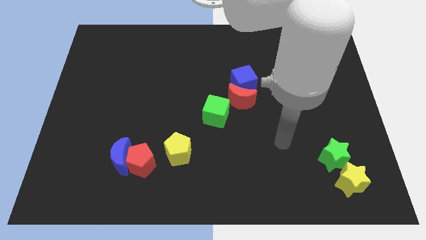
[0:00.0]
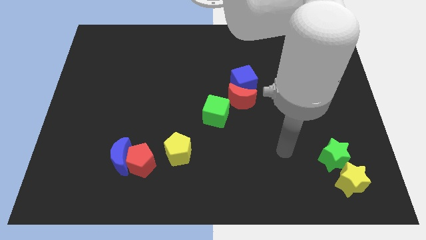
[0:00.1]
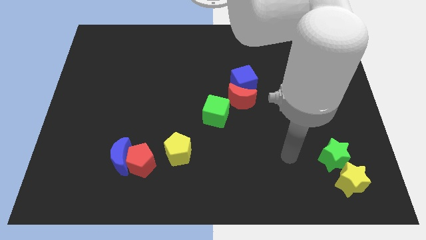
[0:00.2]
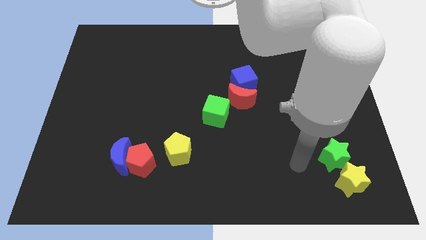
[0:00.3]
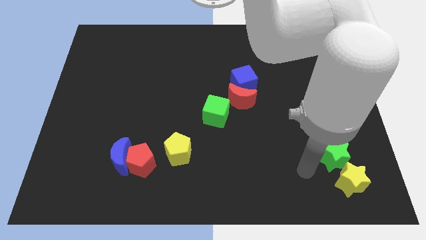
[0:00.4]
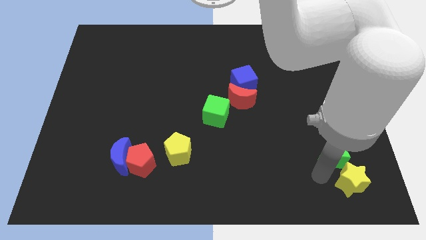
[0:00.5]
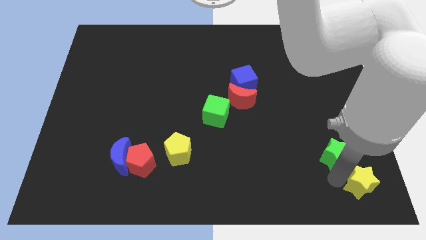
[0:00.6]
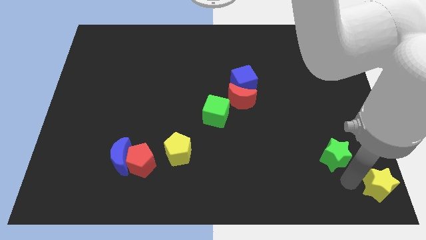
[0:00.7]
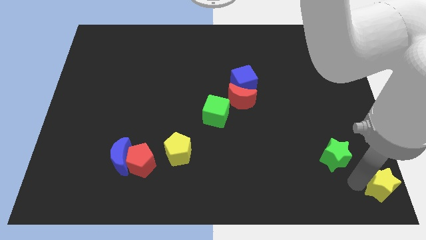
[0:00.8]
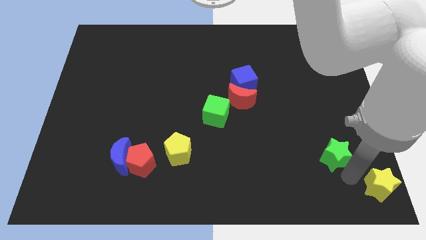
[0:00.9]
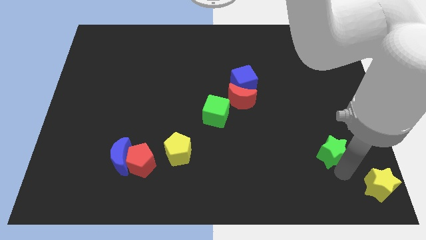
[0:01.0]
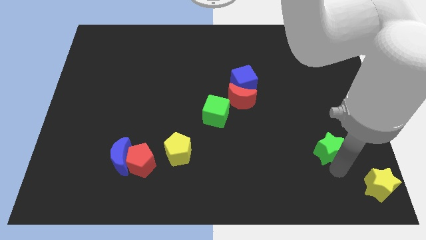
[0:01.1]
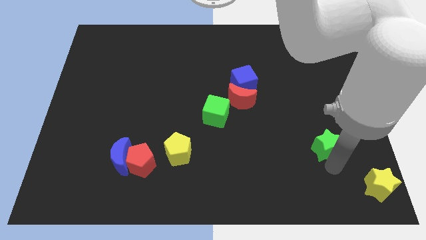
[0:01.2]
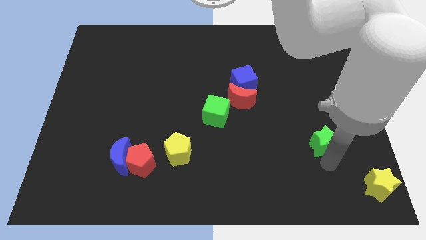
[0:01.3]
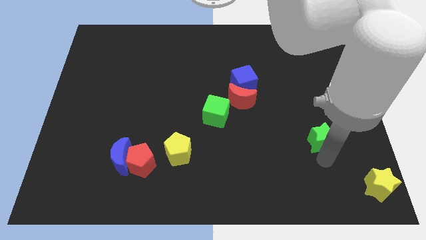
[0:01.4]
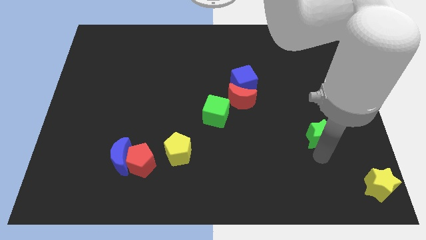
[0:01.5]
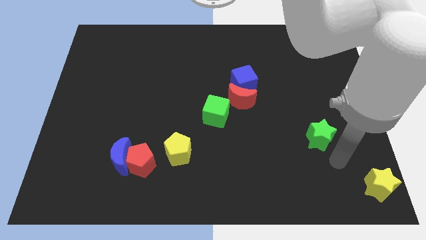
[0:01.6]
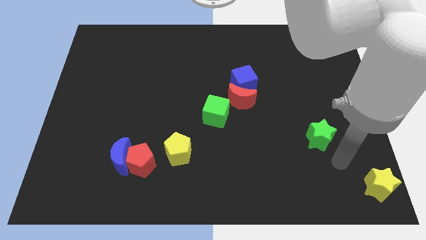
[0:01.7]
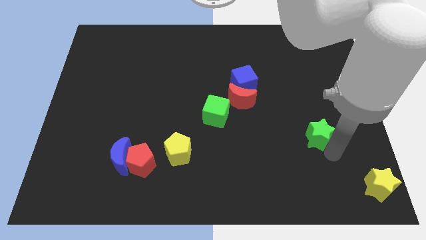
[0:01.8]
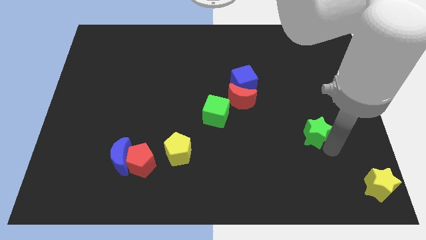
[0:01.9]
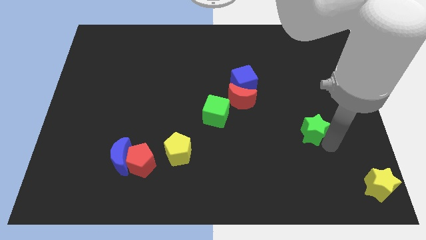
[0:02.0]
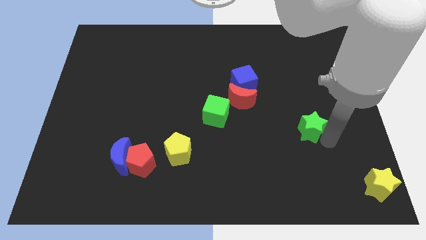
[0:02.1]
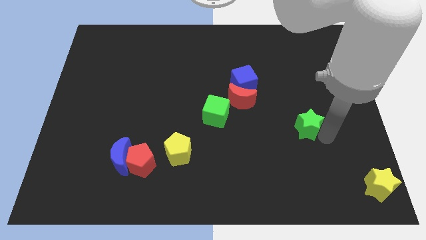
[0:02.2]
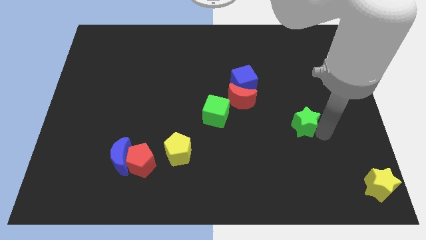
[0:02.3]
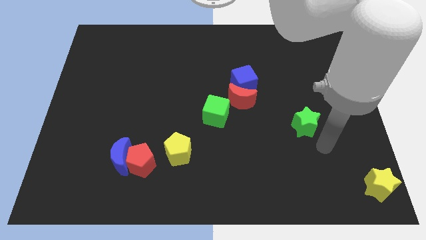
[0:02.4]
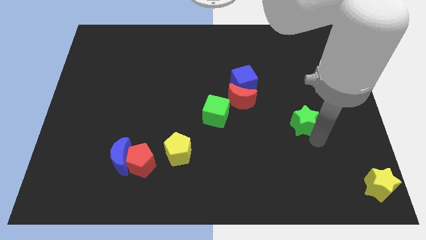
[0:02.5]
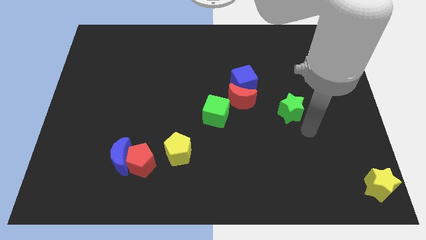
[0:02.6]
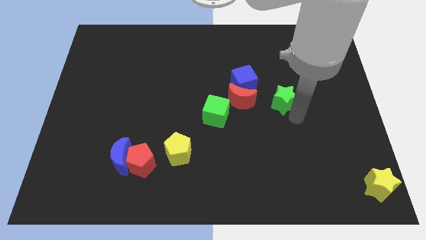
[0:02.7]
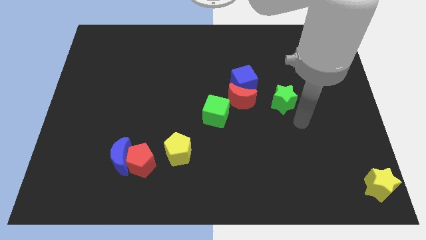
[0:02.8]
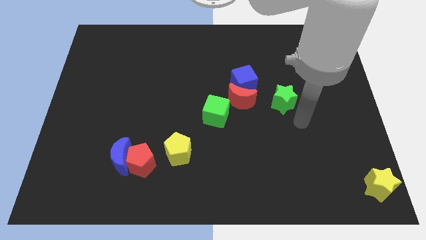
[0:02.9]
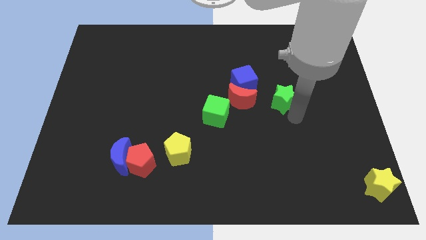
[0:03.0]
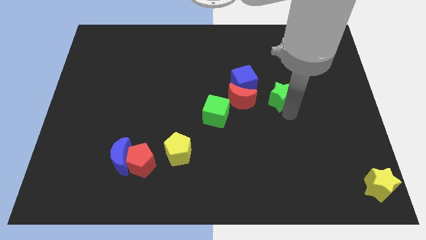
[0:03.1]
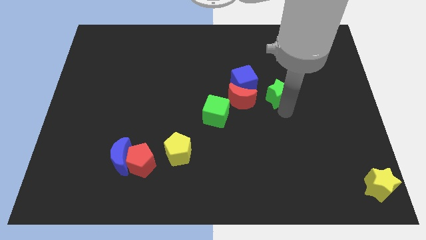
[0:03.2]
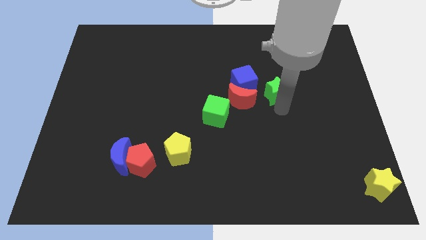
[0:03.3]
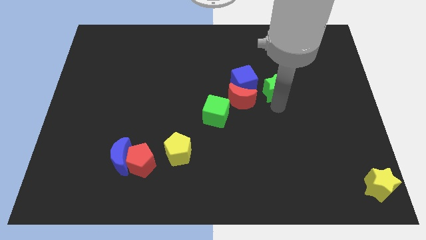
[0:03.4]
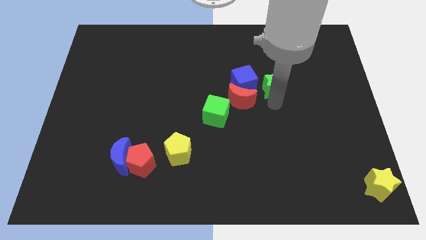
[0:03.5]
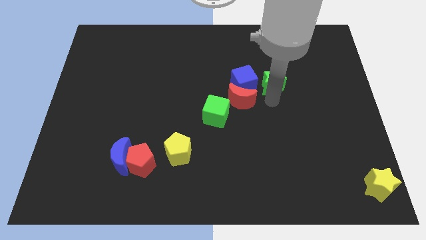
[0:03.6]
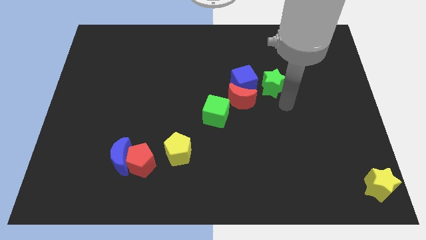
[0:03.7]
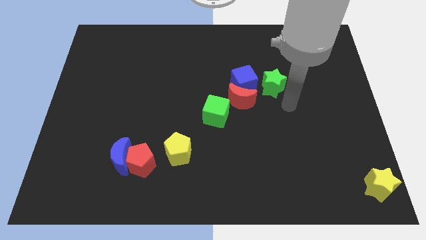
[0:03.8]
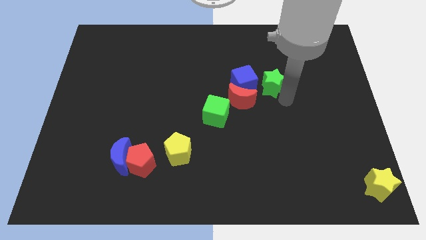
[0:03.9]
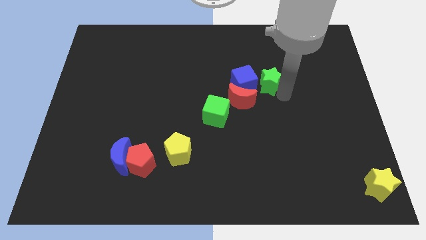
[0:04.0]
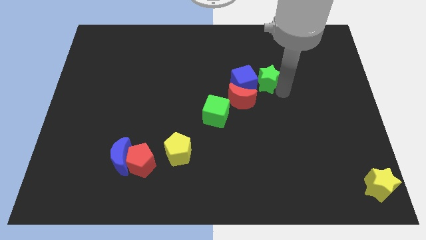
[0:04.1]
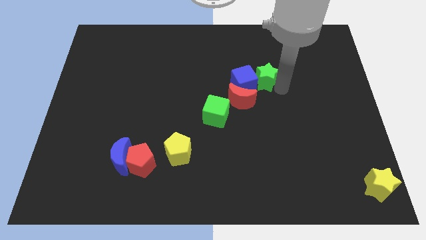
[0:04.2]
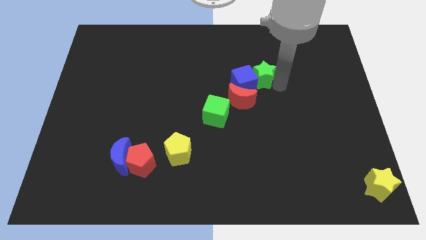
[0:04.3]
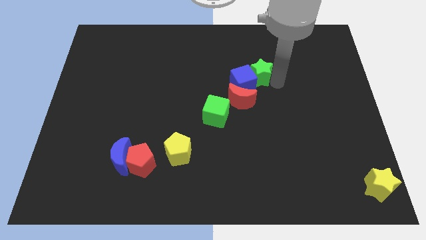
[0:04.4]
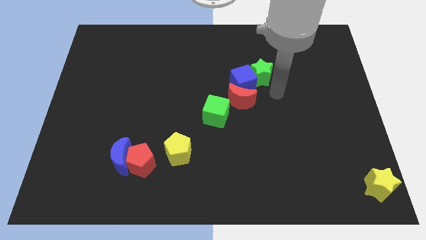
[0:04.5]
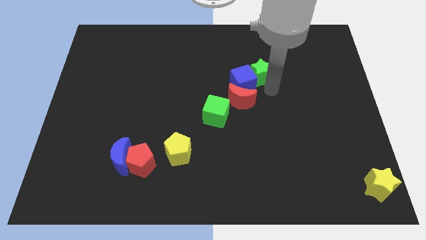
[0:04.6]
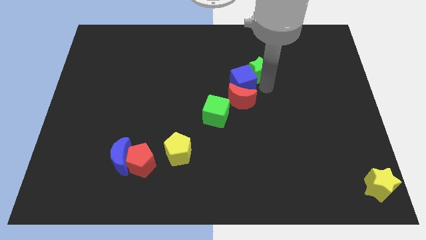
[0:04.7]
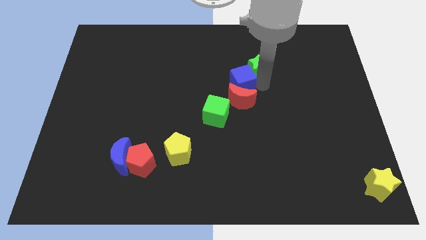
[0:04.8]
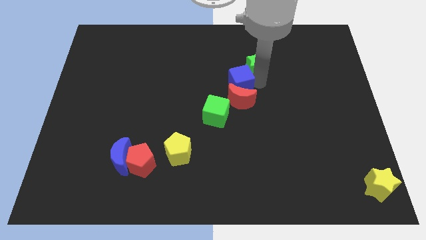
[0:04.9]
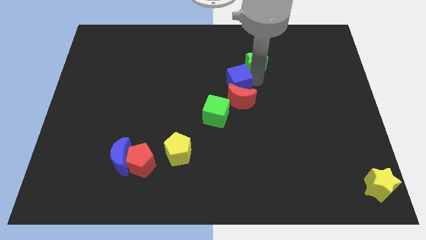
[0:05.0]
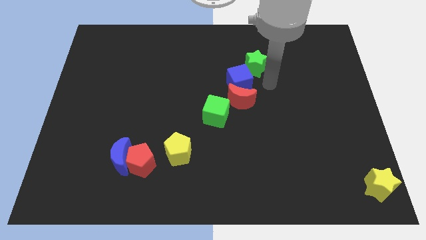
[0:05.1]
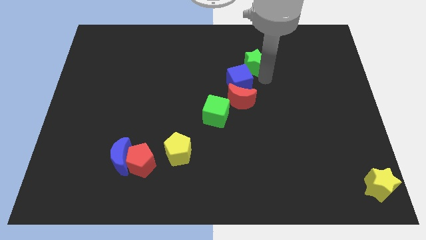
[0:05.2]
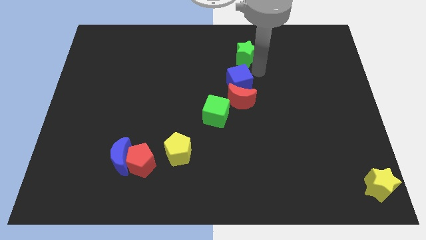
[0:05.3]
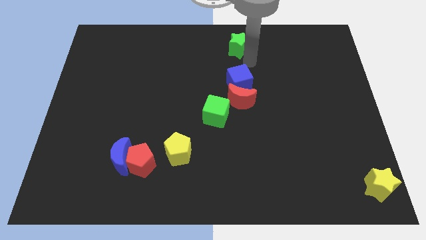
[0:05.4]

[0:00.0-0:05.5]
push the green star to the top

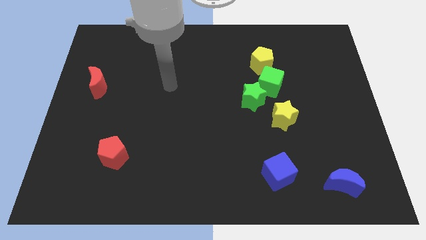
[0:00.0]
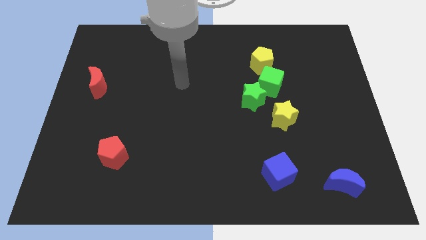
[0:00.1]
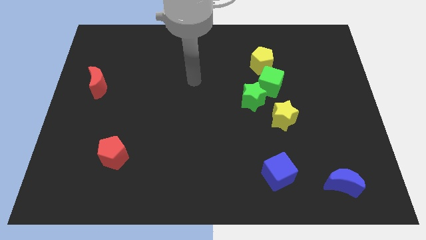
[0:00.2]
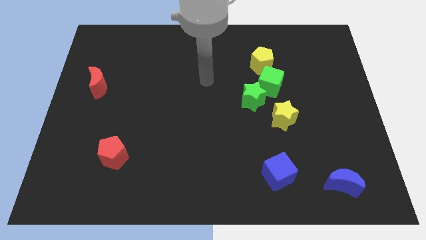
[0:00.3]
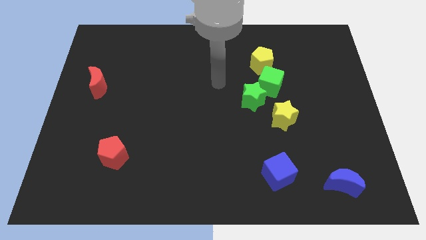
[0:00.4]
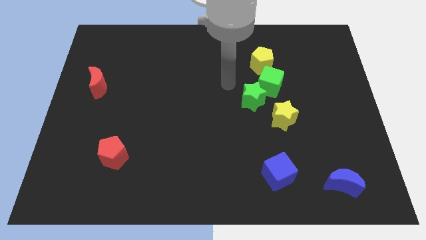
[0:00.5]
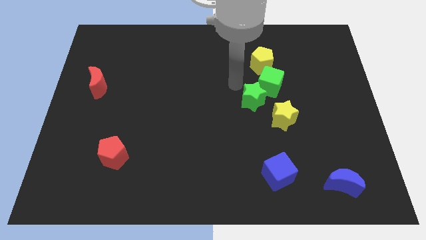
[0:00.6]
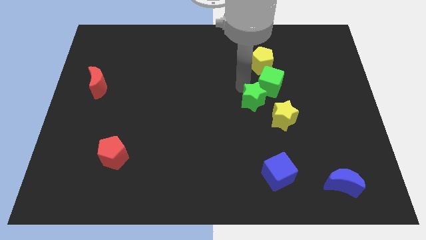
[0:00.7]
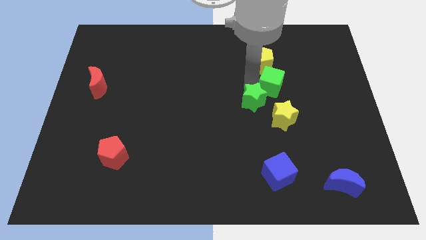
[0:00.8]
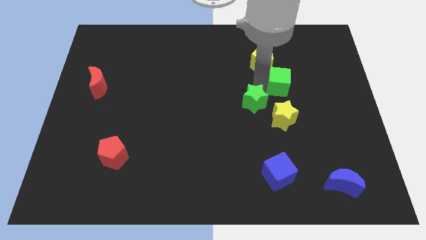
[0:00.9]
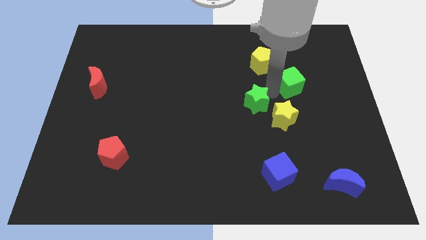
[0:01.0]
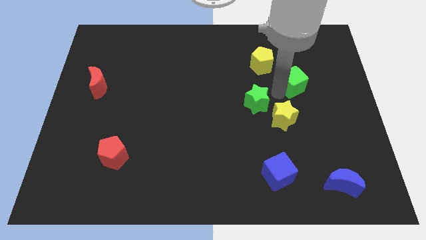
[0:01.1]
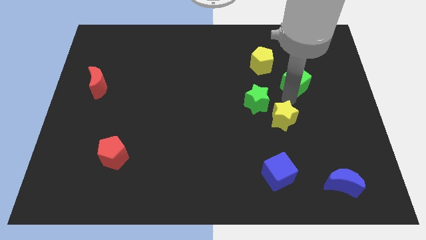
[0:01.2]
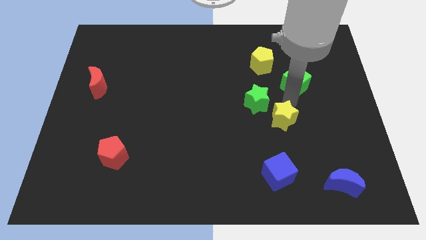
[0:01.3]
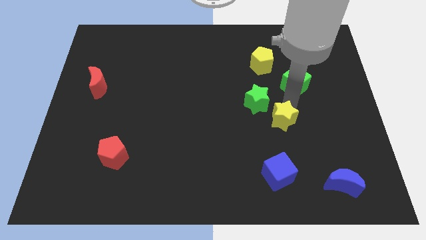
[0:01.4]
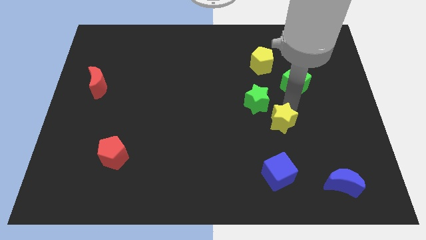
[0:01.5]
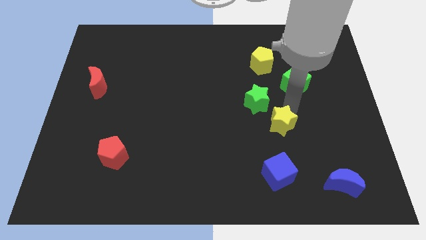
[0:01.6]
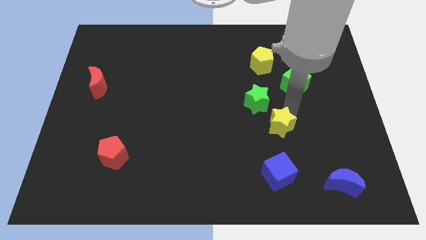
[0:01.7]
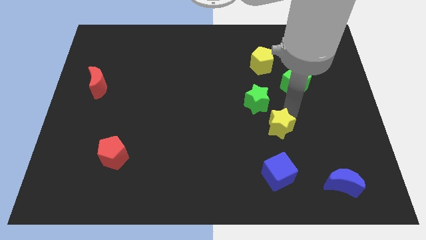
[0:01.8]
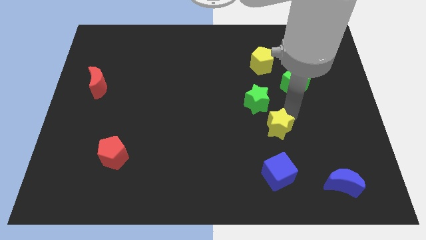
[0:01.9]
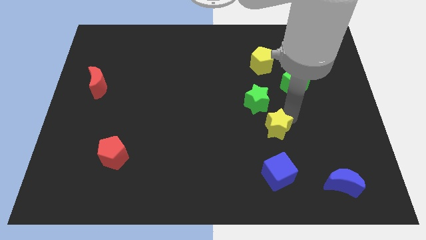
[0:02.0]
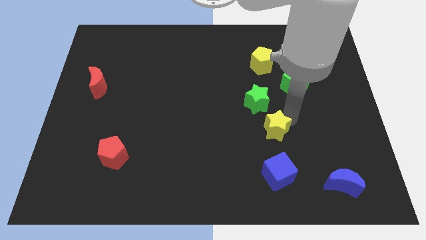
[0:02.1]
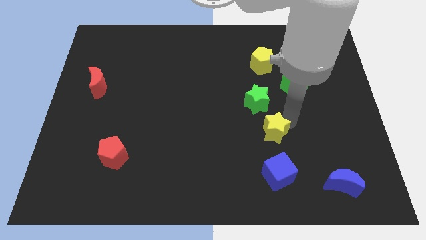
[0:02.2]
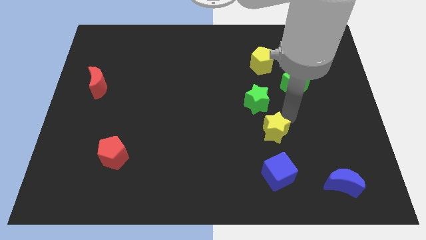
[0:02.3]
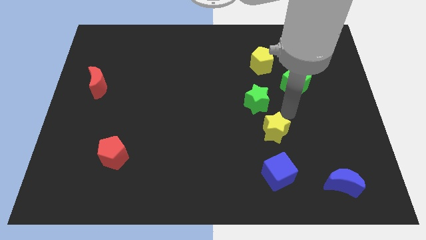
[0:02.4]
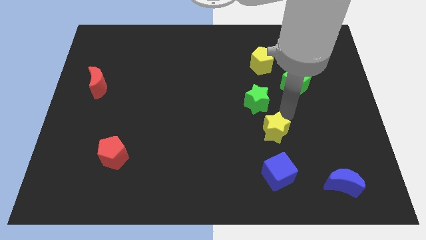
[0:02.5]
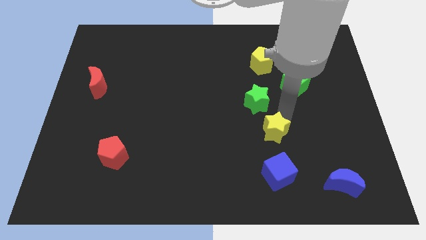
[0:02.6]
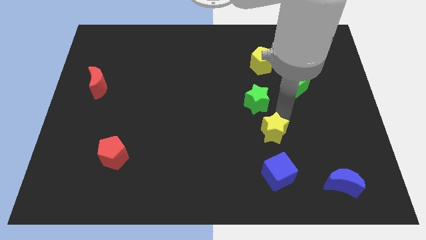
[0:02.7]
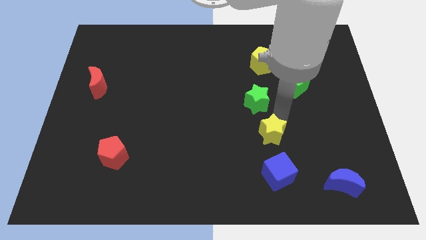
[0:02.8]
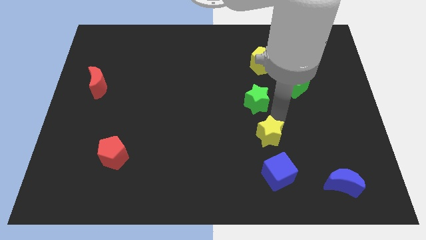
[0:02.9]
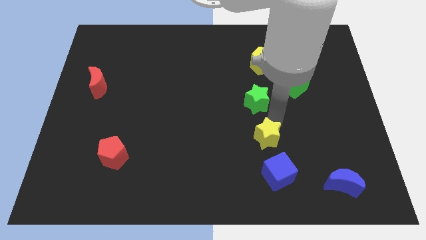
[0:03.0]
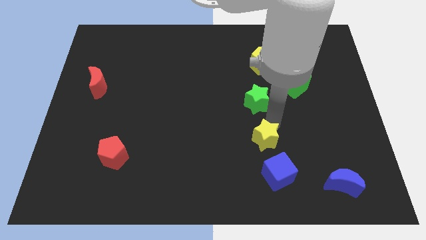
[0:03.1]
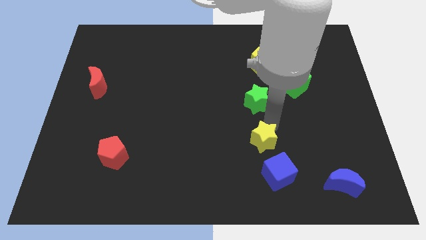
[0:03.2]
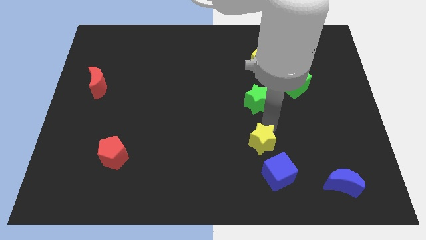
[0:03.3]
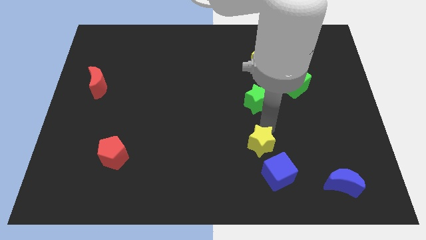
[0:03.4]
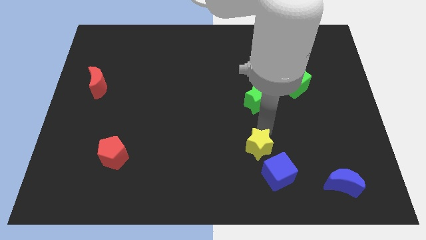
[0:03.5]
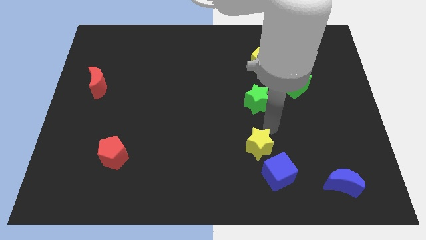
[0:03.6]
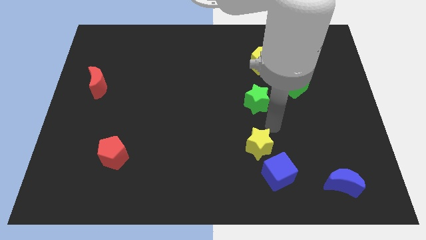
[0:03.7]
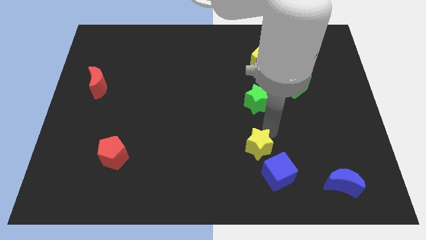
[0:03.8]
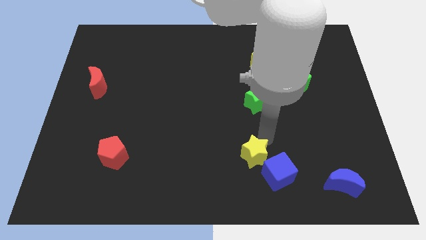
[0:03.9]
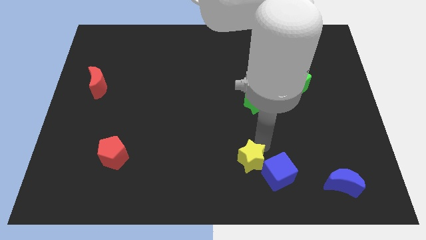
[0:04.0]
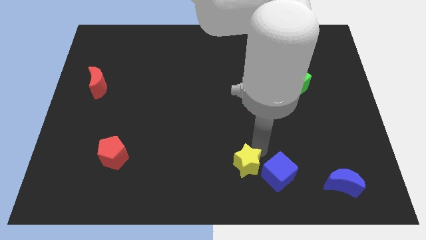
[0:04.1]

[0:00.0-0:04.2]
put the yellow star to the bottom
